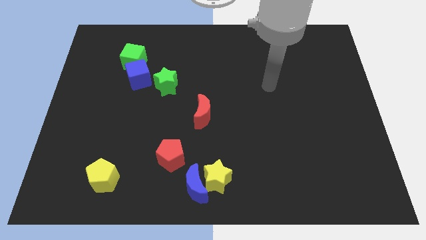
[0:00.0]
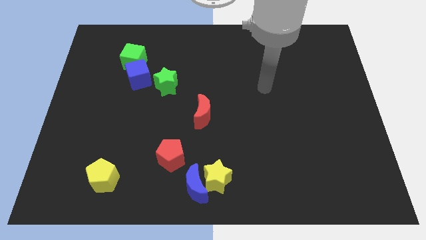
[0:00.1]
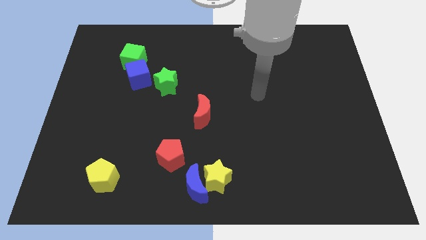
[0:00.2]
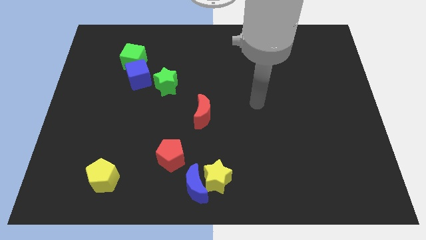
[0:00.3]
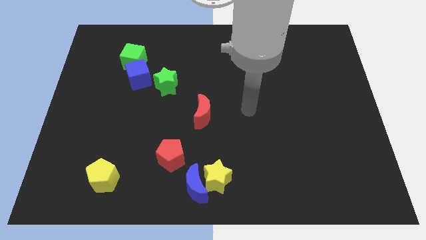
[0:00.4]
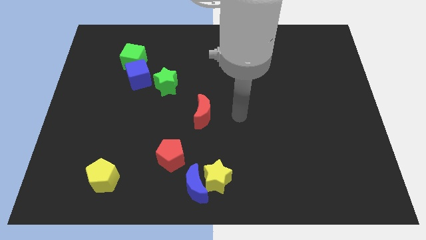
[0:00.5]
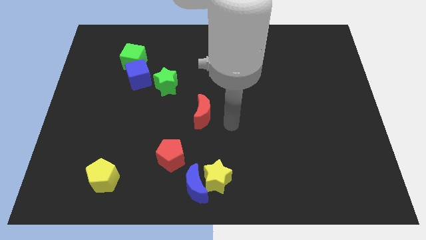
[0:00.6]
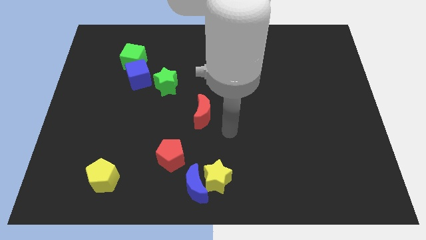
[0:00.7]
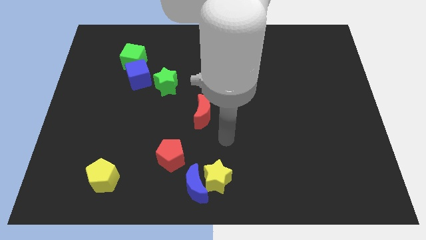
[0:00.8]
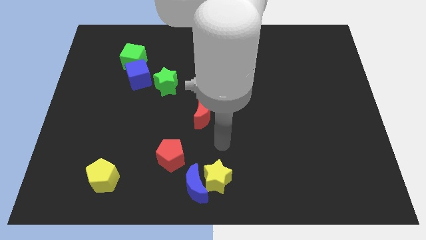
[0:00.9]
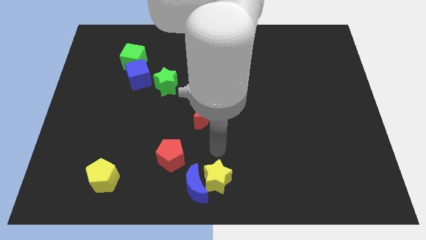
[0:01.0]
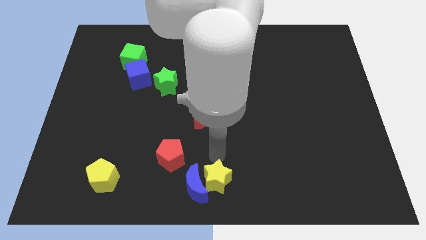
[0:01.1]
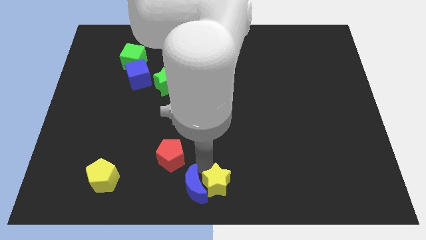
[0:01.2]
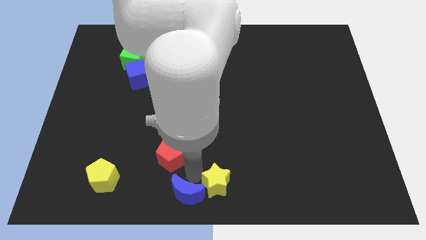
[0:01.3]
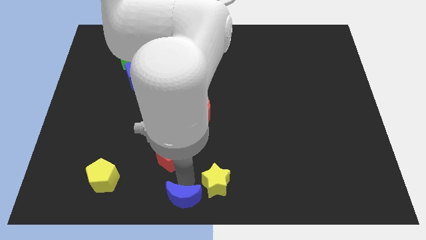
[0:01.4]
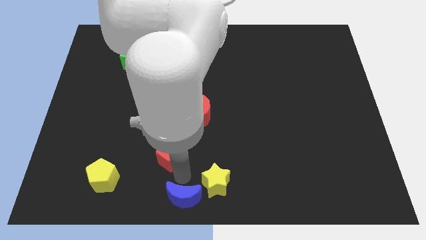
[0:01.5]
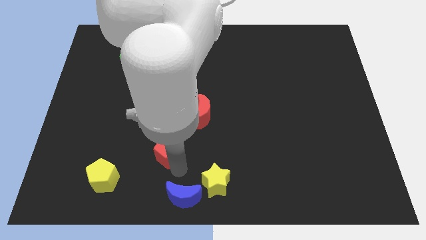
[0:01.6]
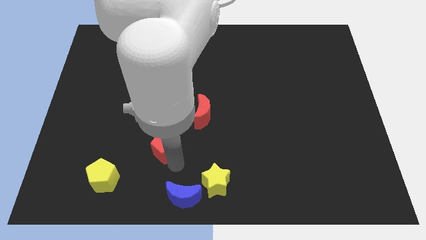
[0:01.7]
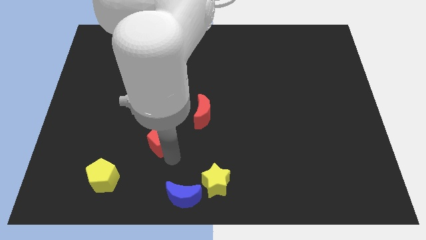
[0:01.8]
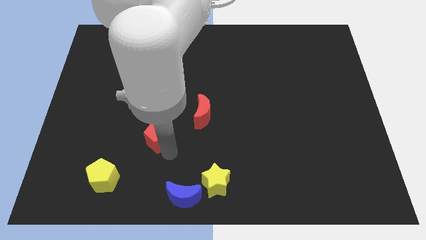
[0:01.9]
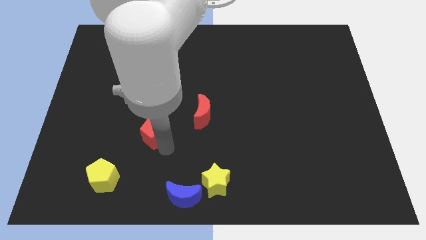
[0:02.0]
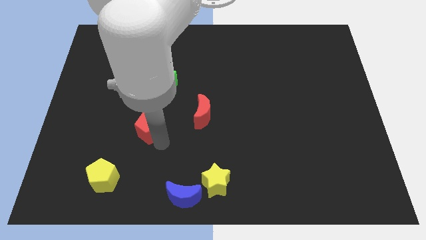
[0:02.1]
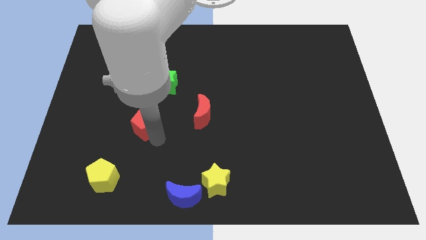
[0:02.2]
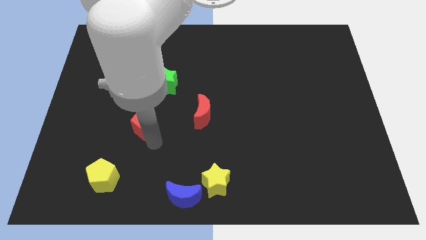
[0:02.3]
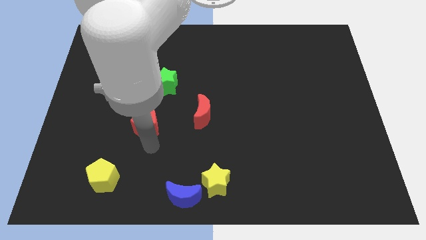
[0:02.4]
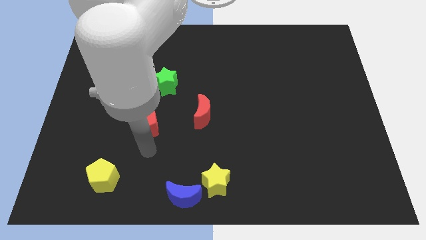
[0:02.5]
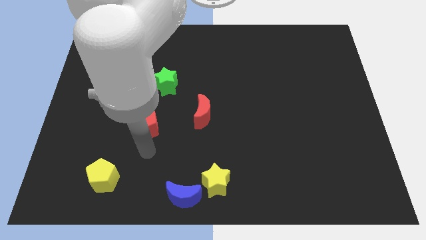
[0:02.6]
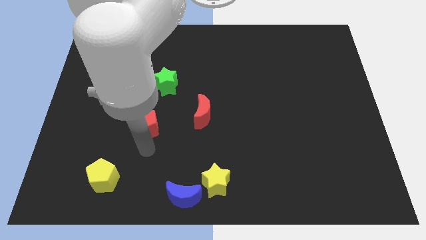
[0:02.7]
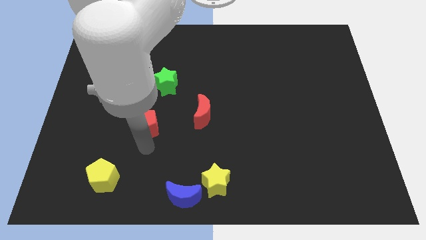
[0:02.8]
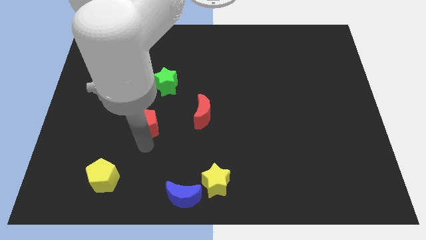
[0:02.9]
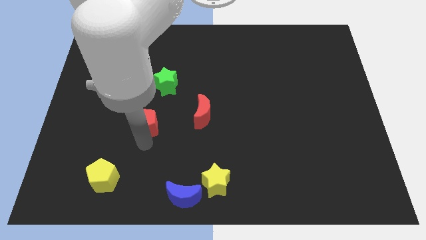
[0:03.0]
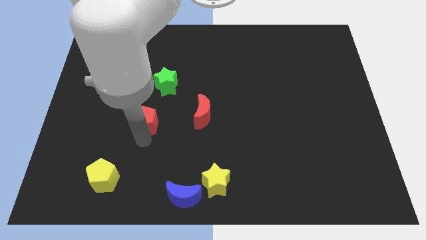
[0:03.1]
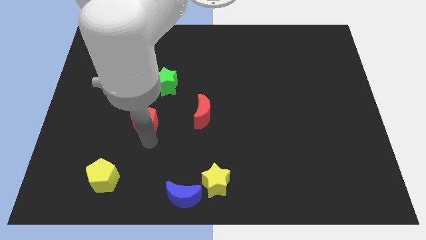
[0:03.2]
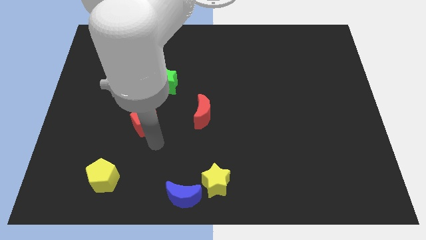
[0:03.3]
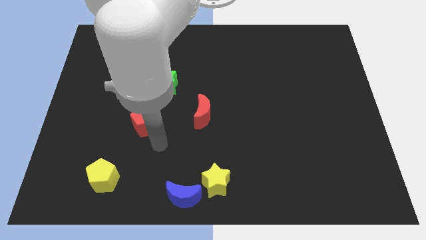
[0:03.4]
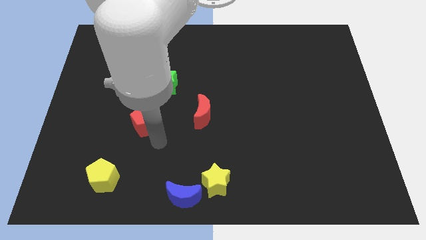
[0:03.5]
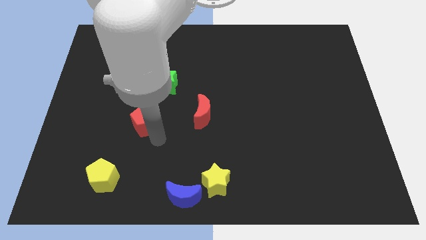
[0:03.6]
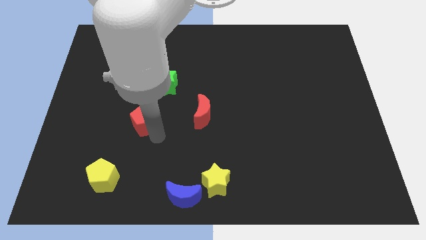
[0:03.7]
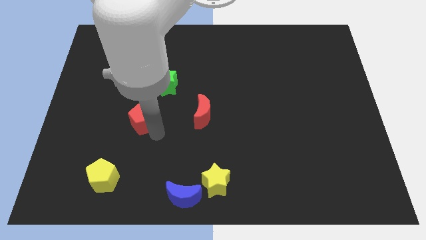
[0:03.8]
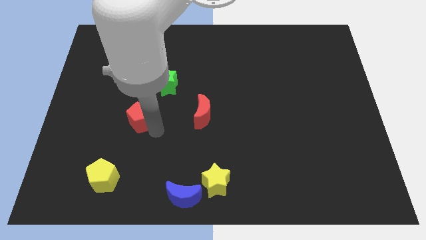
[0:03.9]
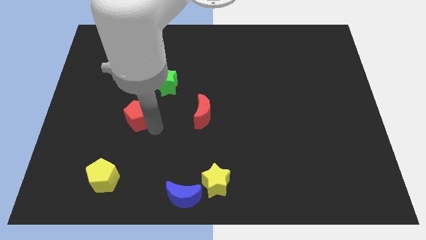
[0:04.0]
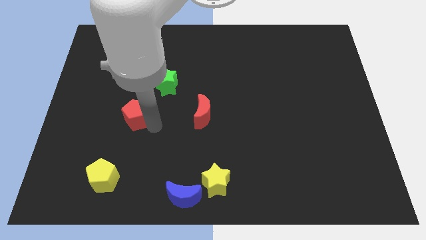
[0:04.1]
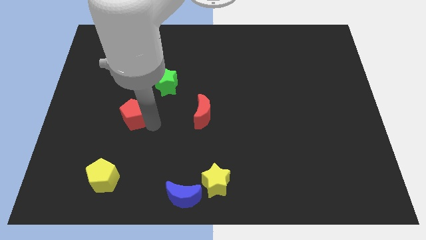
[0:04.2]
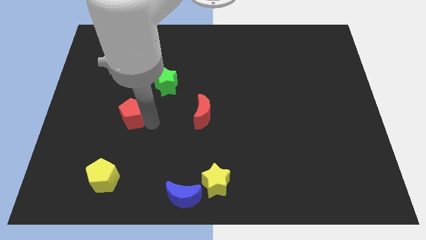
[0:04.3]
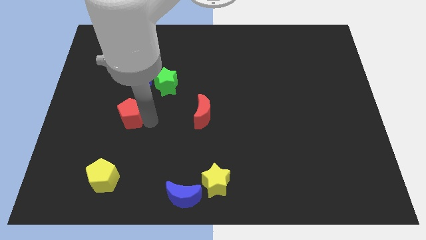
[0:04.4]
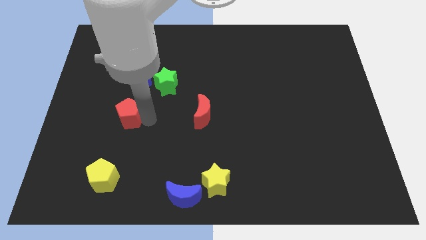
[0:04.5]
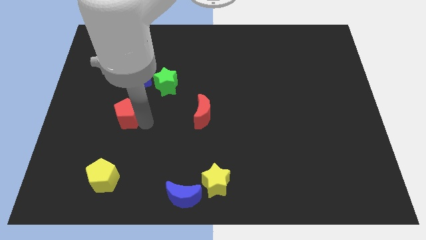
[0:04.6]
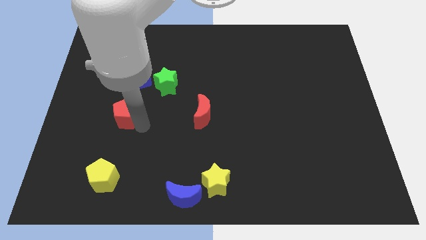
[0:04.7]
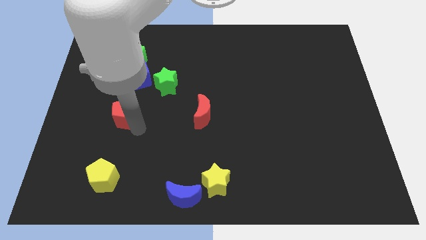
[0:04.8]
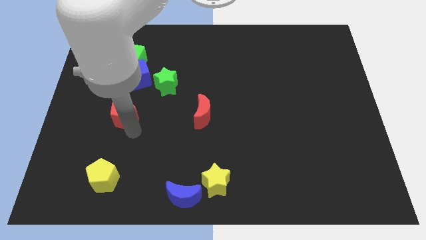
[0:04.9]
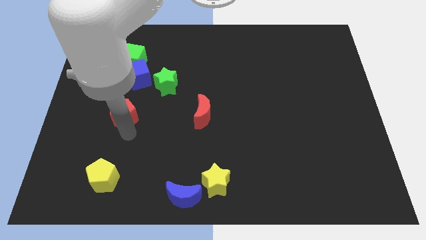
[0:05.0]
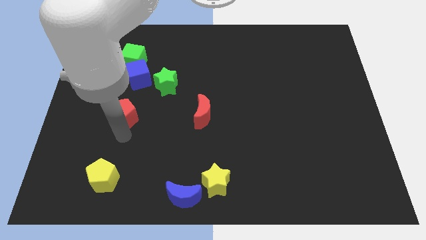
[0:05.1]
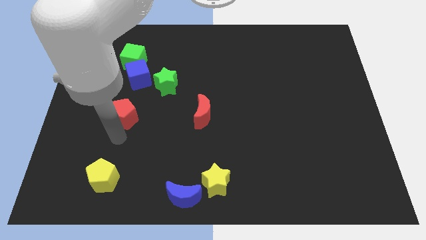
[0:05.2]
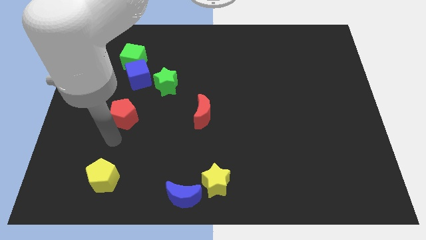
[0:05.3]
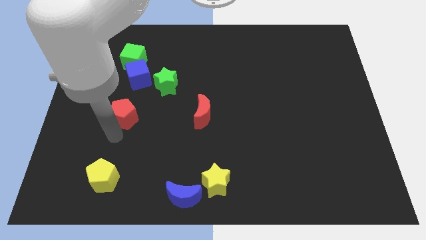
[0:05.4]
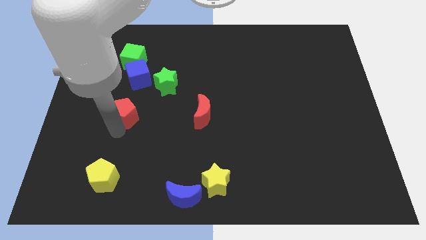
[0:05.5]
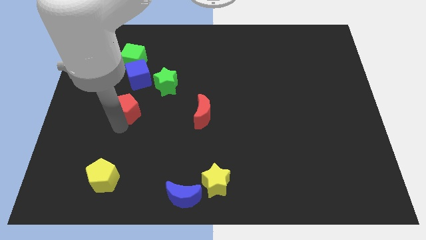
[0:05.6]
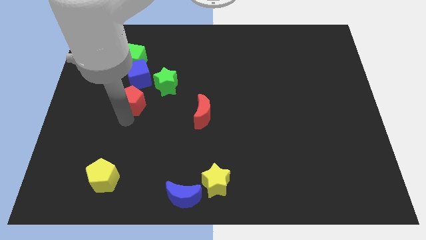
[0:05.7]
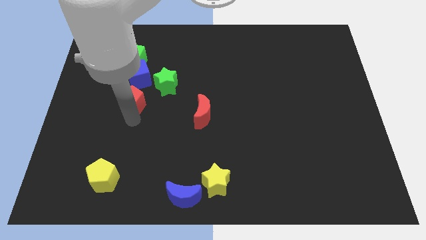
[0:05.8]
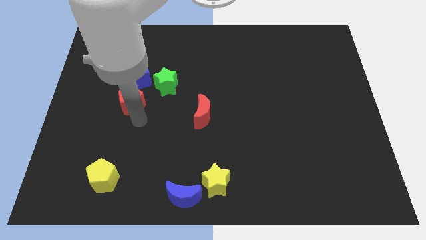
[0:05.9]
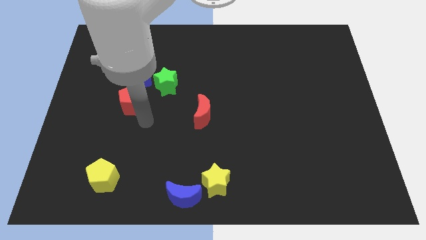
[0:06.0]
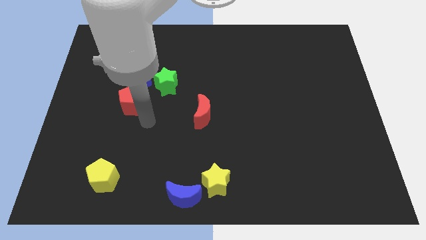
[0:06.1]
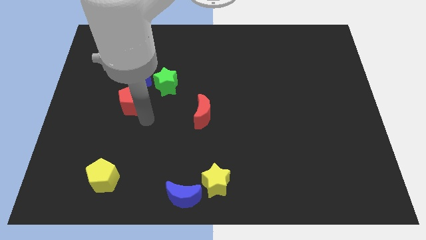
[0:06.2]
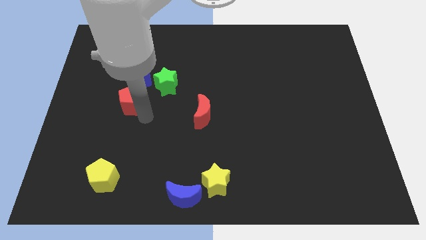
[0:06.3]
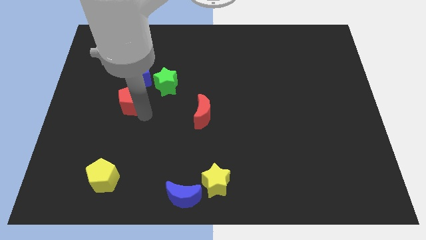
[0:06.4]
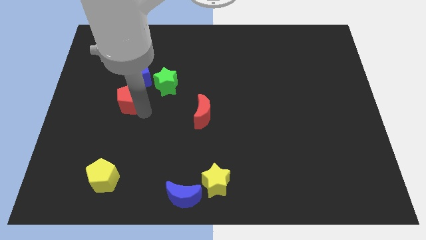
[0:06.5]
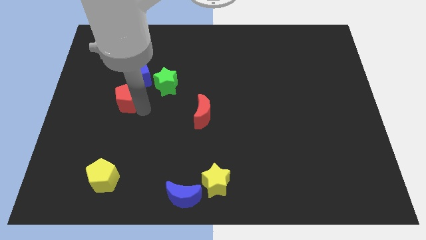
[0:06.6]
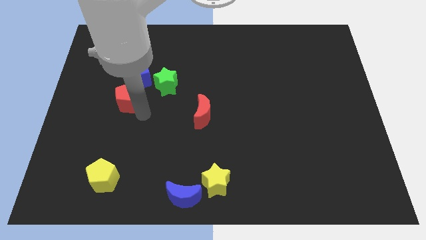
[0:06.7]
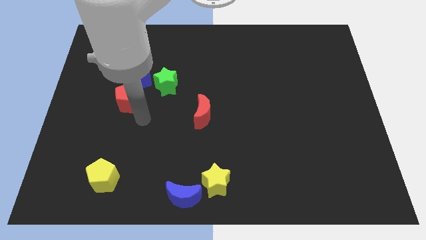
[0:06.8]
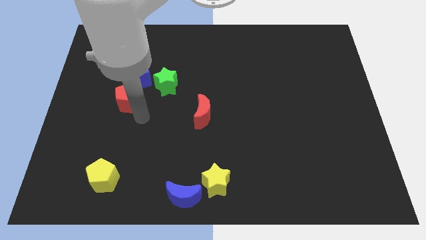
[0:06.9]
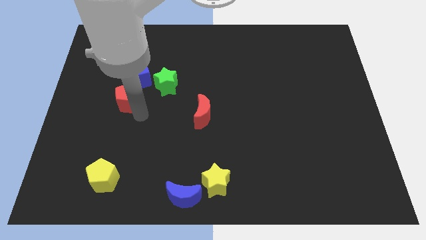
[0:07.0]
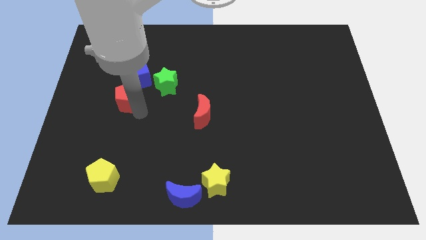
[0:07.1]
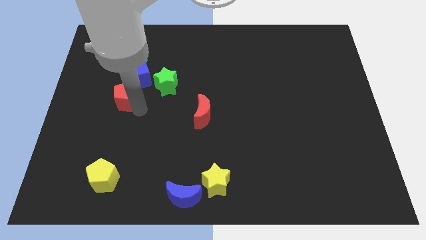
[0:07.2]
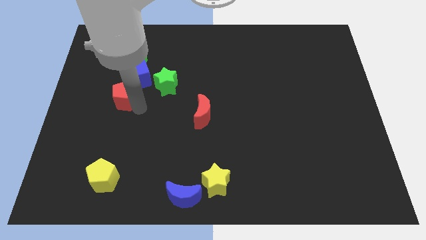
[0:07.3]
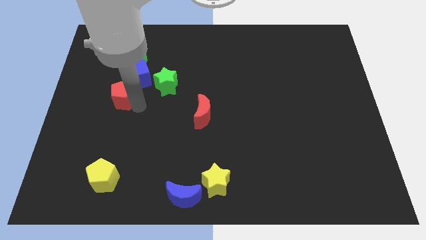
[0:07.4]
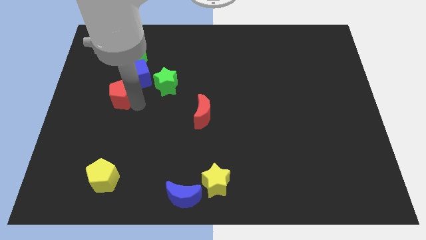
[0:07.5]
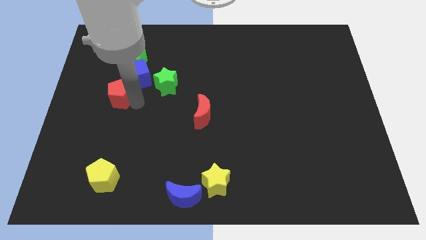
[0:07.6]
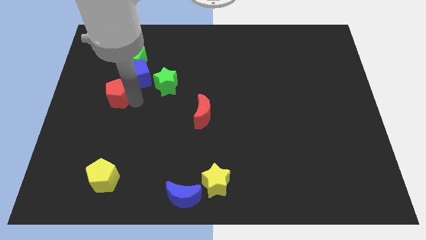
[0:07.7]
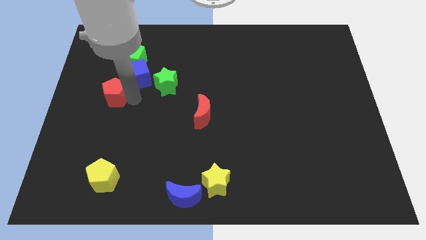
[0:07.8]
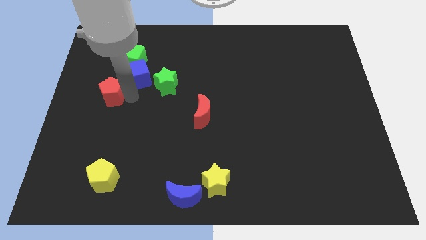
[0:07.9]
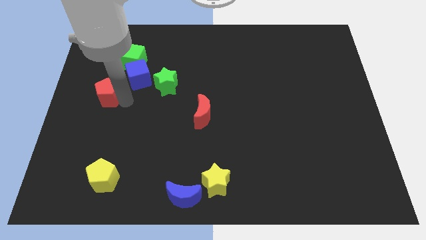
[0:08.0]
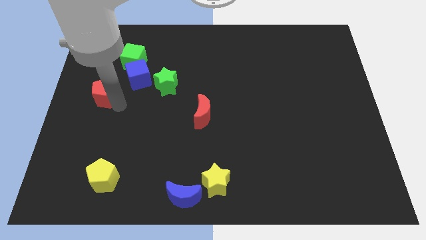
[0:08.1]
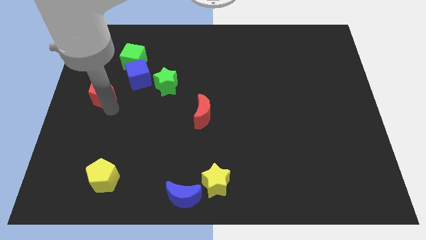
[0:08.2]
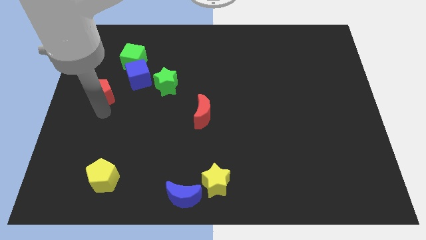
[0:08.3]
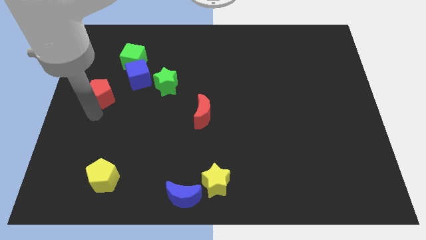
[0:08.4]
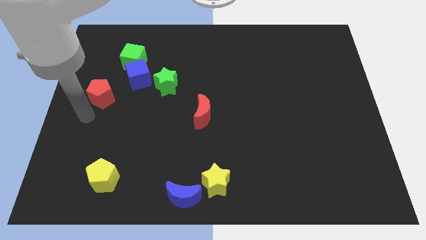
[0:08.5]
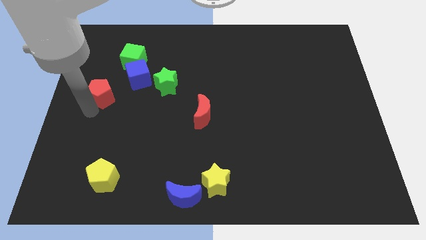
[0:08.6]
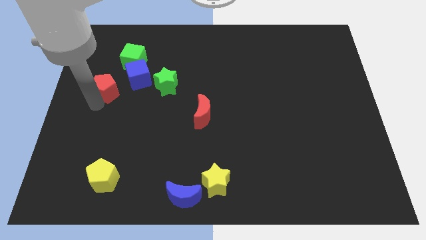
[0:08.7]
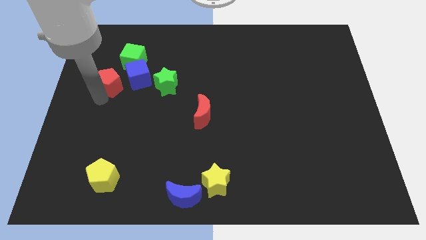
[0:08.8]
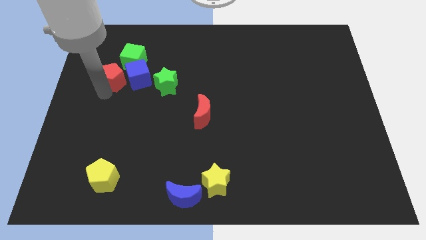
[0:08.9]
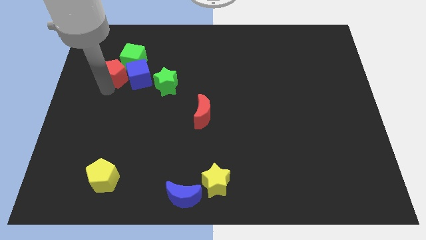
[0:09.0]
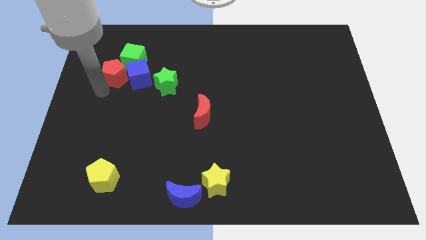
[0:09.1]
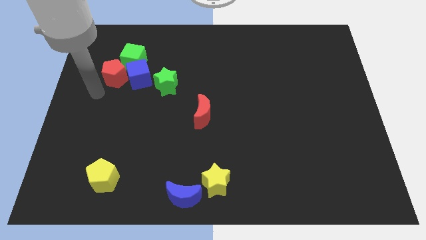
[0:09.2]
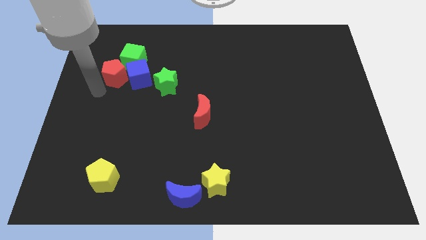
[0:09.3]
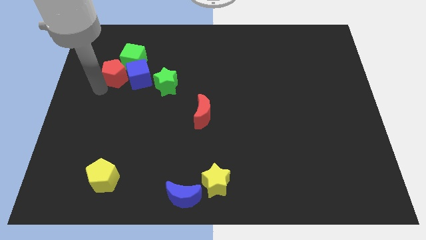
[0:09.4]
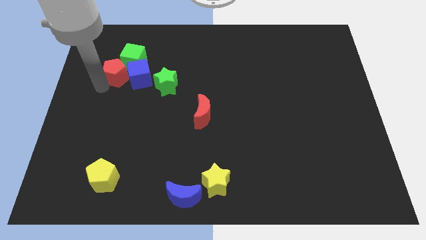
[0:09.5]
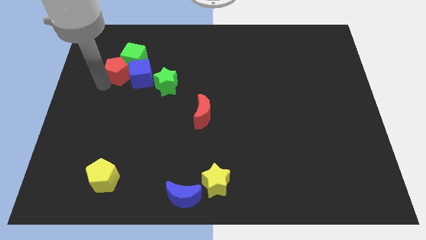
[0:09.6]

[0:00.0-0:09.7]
move the red pentagon close to the green cube
